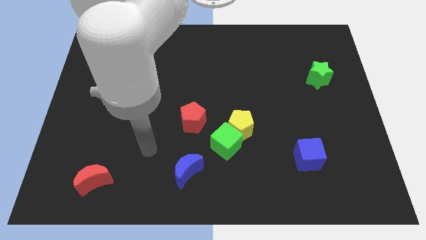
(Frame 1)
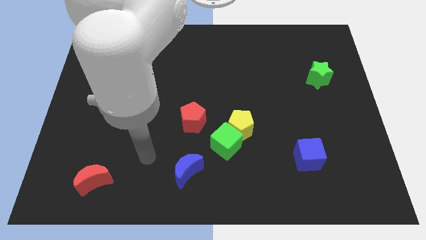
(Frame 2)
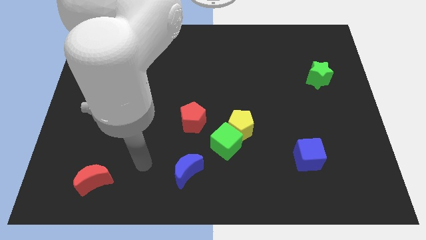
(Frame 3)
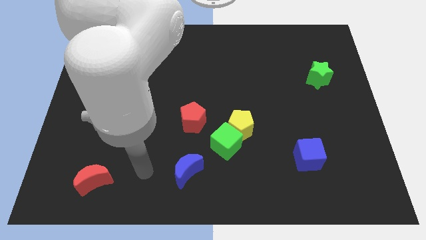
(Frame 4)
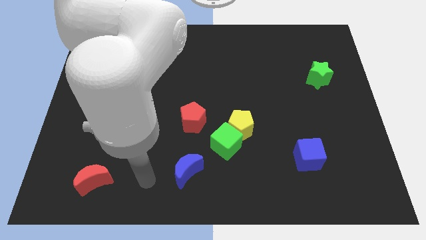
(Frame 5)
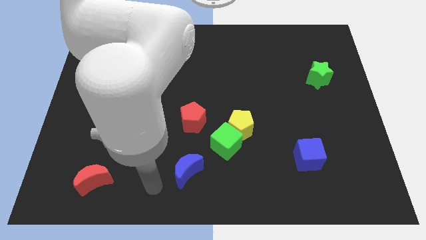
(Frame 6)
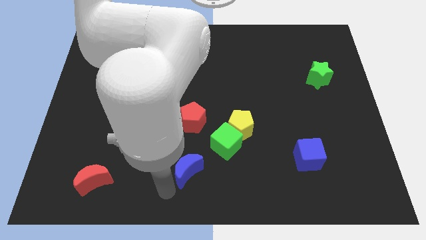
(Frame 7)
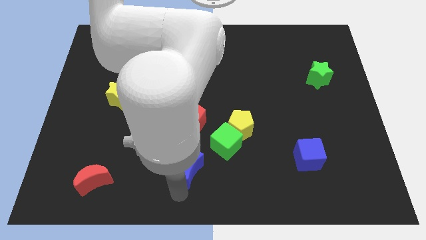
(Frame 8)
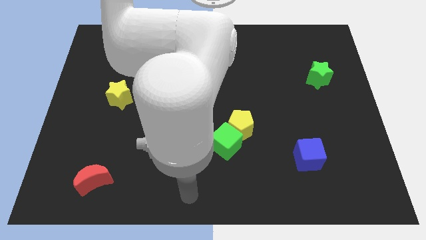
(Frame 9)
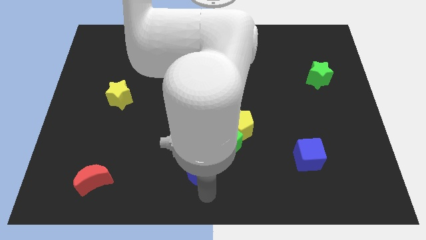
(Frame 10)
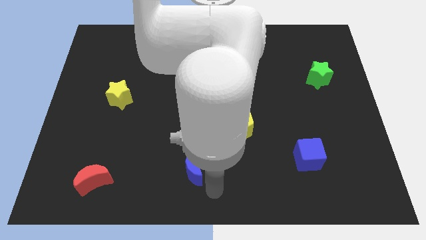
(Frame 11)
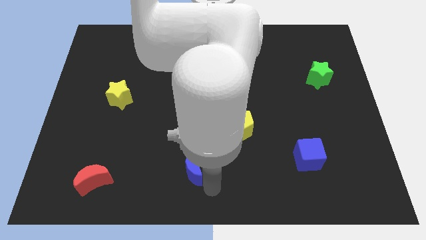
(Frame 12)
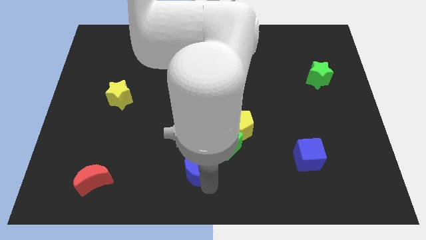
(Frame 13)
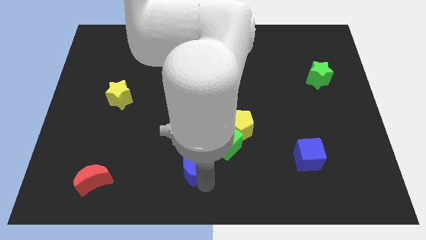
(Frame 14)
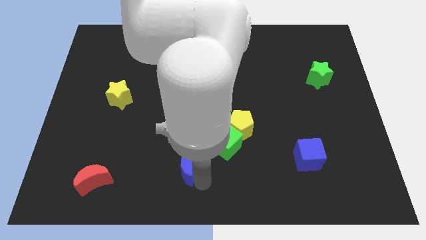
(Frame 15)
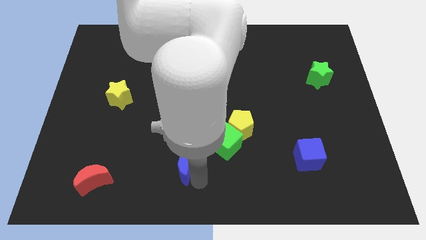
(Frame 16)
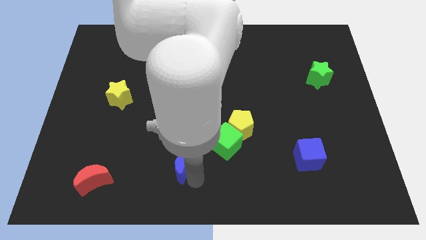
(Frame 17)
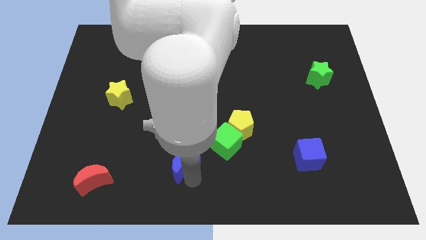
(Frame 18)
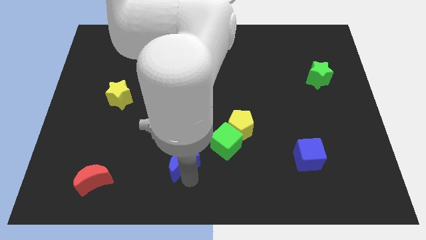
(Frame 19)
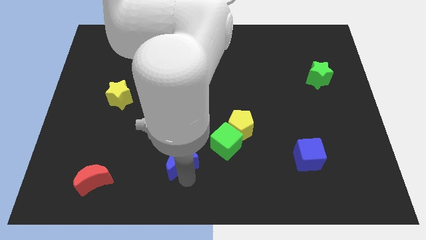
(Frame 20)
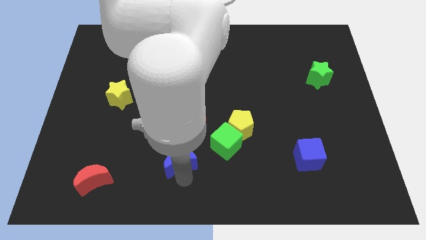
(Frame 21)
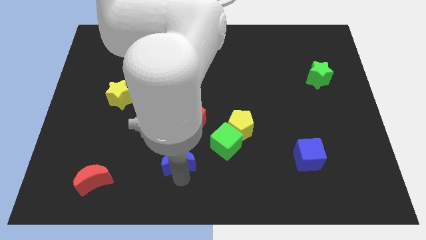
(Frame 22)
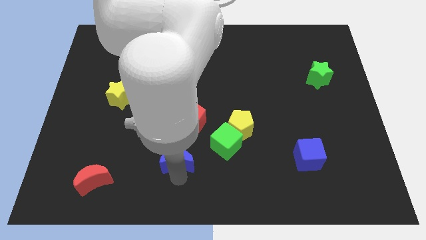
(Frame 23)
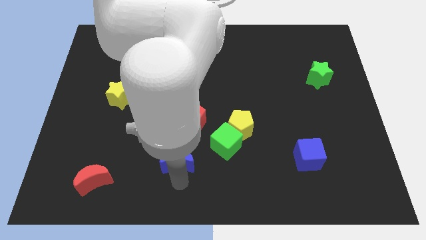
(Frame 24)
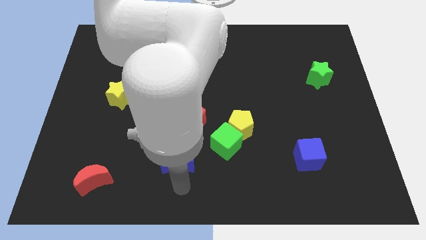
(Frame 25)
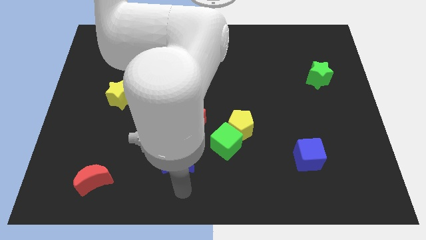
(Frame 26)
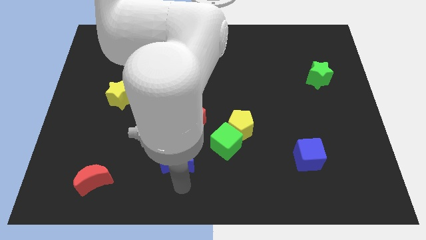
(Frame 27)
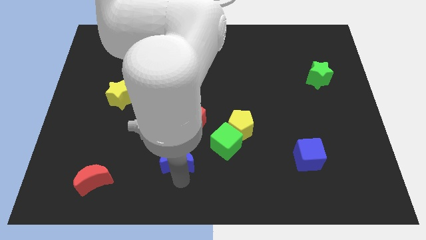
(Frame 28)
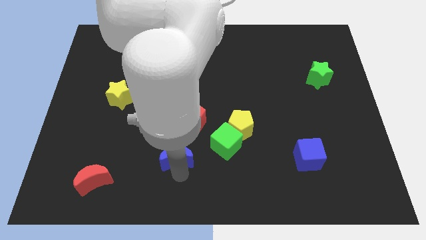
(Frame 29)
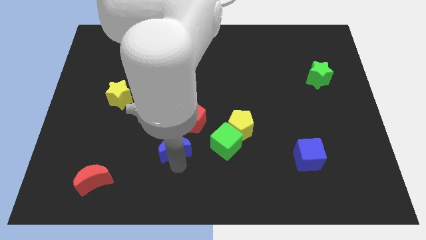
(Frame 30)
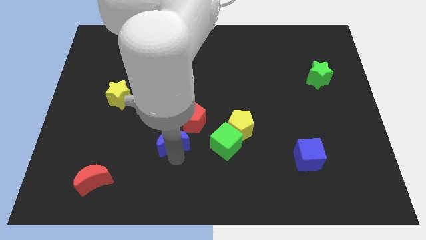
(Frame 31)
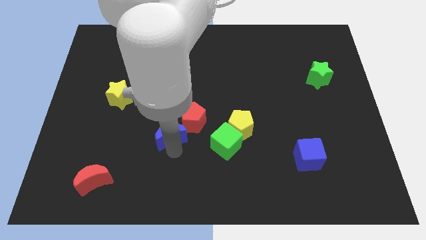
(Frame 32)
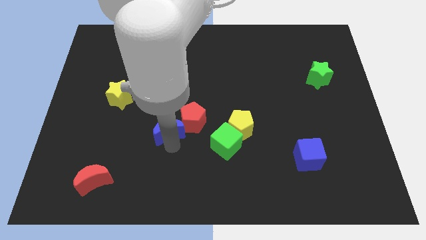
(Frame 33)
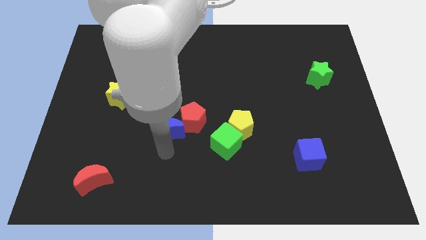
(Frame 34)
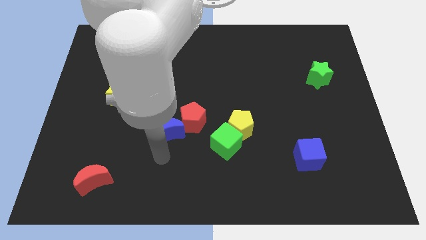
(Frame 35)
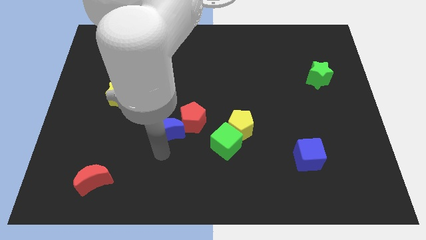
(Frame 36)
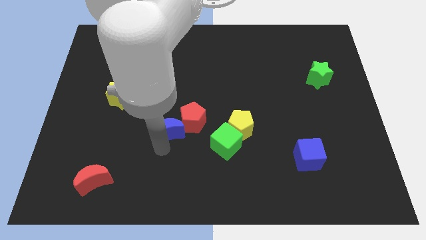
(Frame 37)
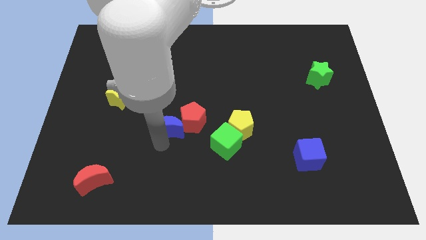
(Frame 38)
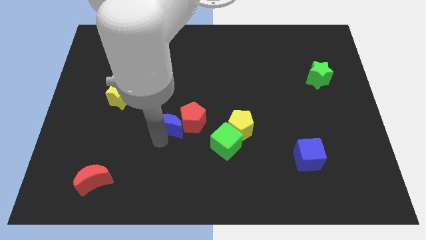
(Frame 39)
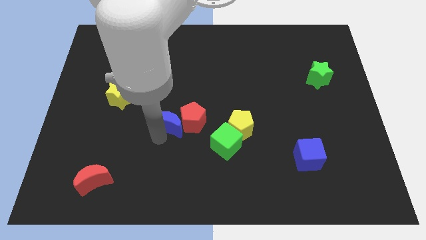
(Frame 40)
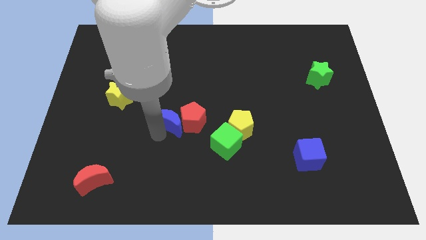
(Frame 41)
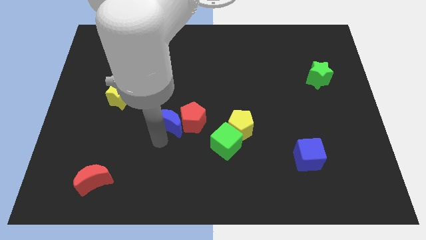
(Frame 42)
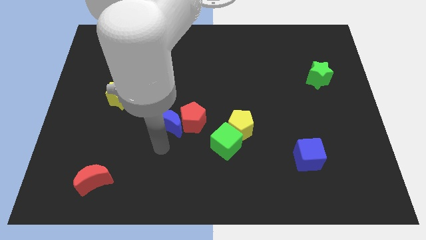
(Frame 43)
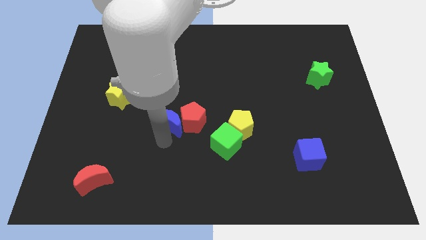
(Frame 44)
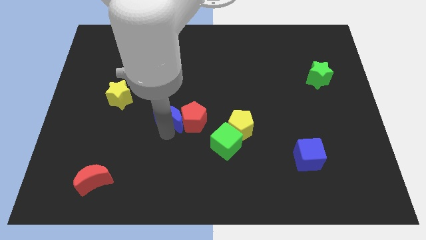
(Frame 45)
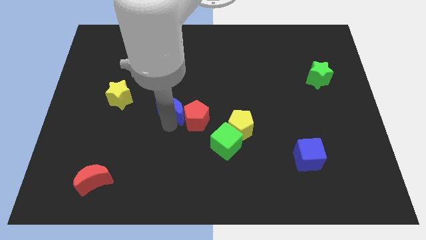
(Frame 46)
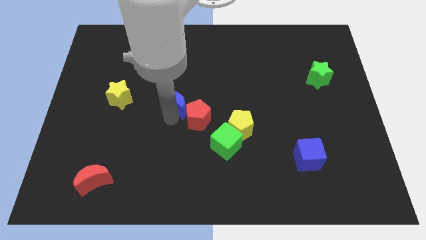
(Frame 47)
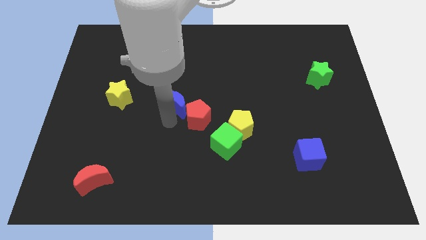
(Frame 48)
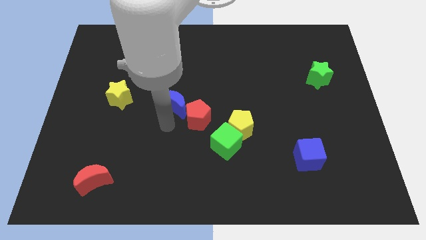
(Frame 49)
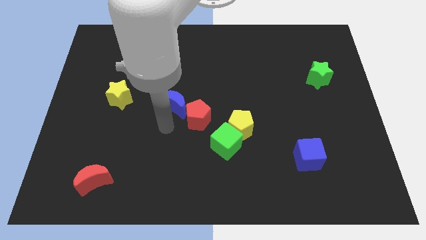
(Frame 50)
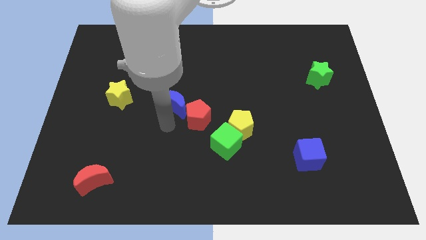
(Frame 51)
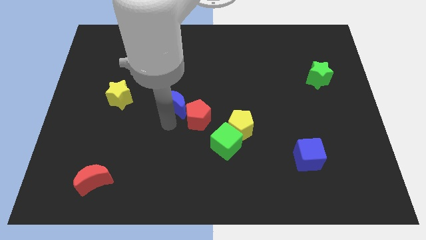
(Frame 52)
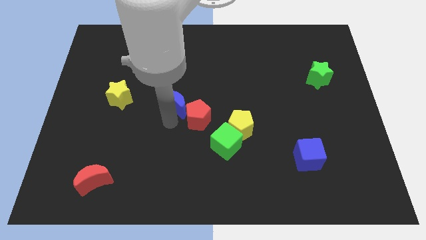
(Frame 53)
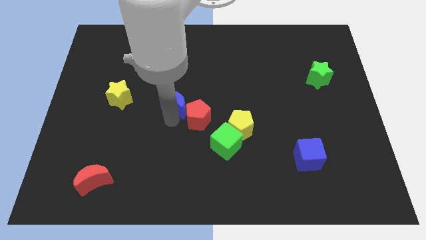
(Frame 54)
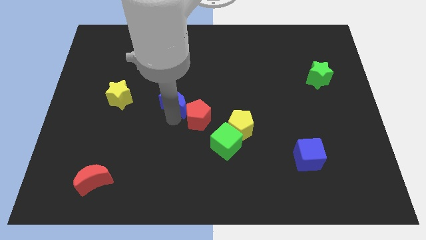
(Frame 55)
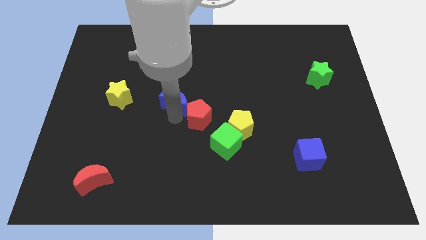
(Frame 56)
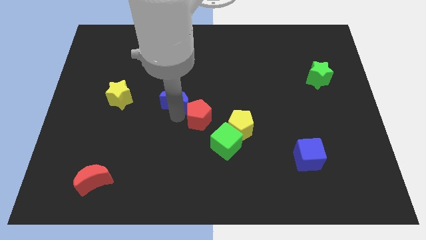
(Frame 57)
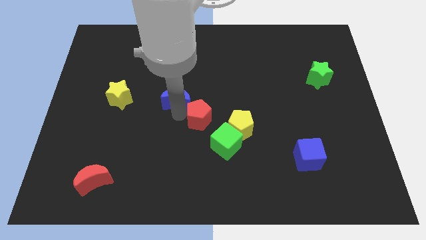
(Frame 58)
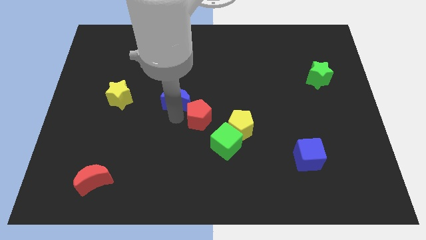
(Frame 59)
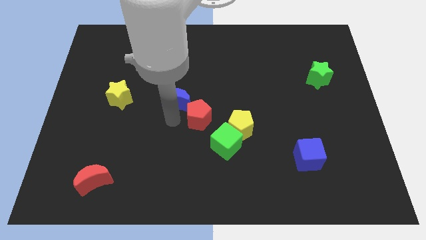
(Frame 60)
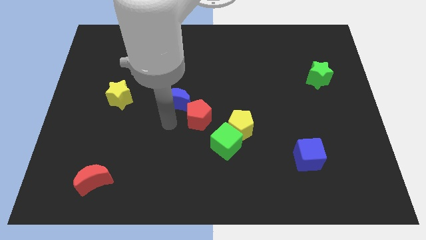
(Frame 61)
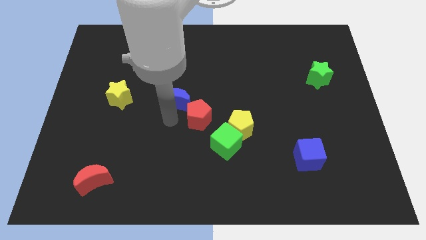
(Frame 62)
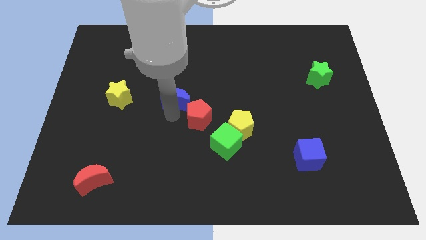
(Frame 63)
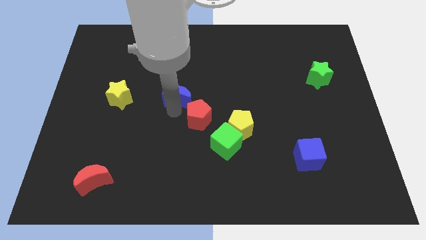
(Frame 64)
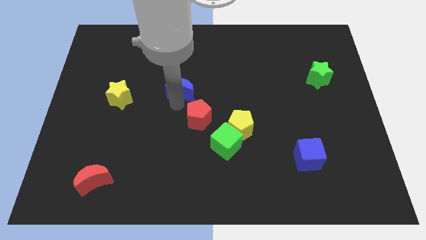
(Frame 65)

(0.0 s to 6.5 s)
push the blue moon up

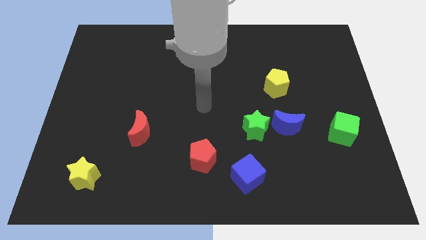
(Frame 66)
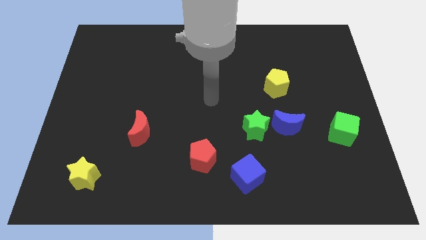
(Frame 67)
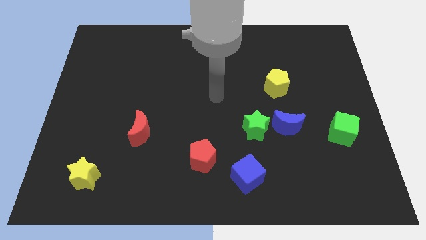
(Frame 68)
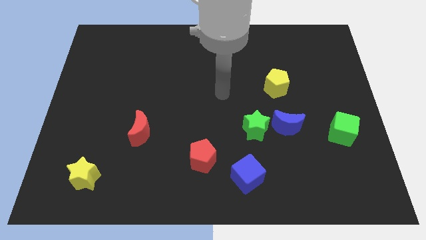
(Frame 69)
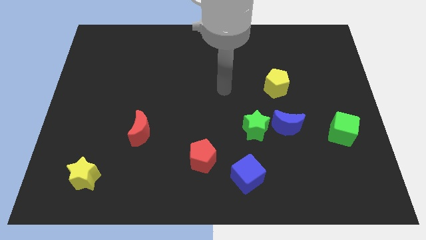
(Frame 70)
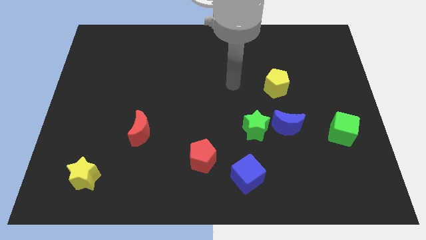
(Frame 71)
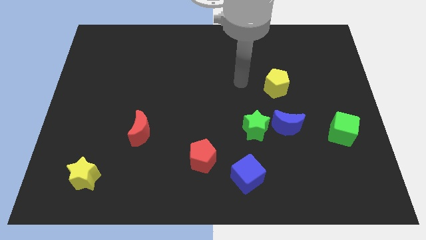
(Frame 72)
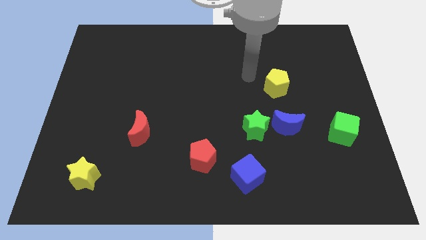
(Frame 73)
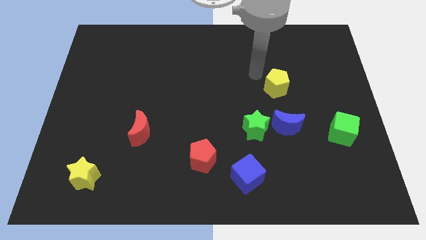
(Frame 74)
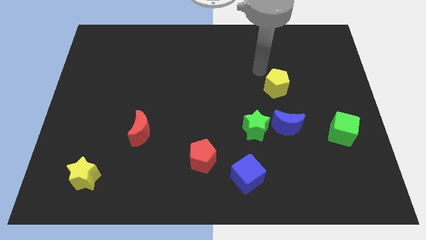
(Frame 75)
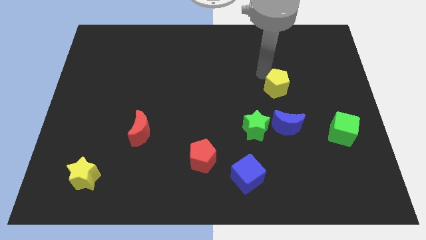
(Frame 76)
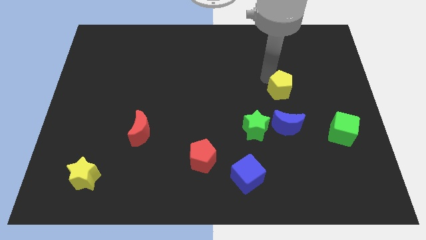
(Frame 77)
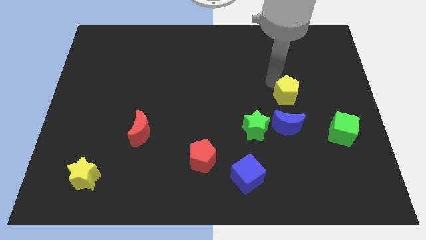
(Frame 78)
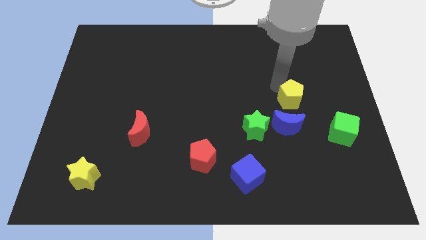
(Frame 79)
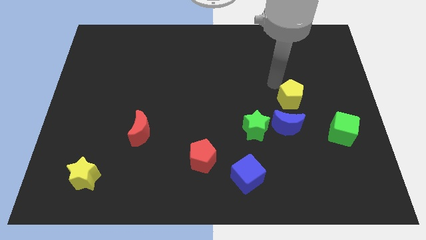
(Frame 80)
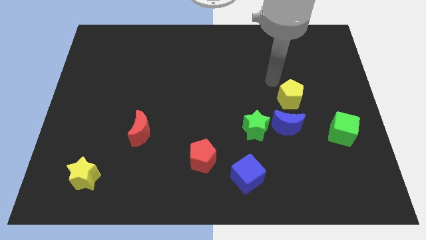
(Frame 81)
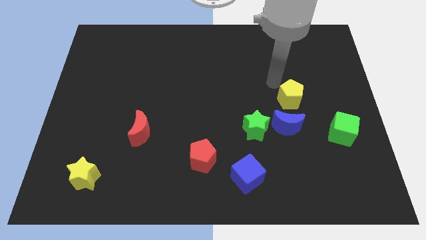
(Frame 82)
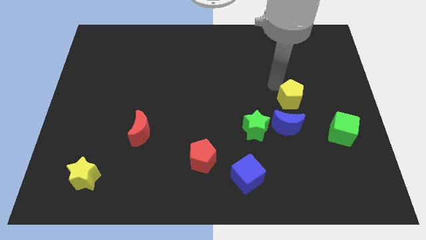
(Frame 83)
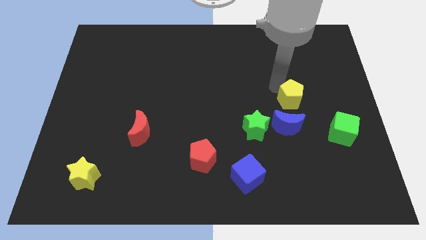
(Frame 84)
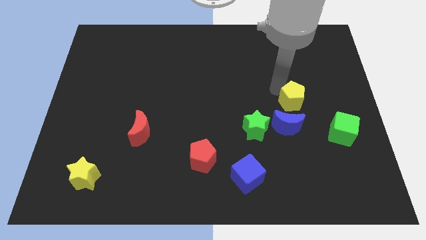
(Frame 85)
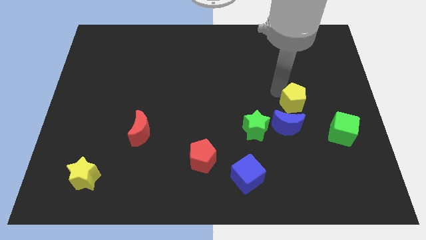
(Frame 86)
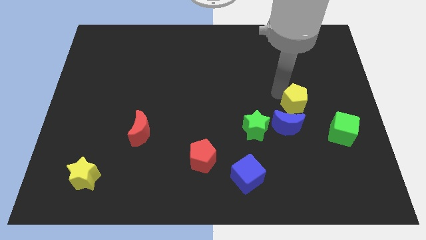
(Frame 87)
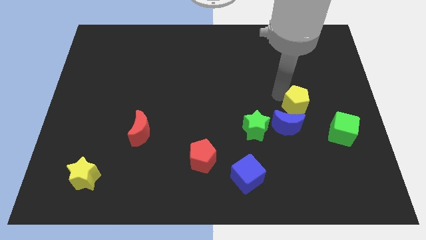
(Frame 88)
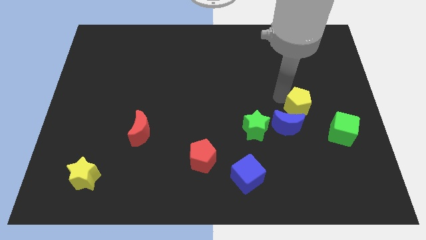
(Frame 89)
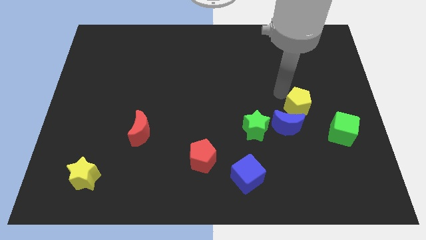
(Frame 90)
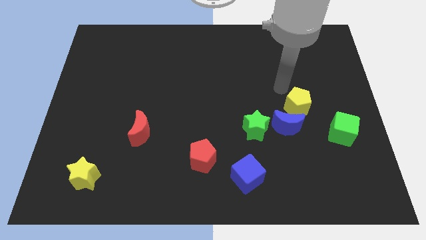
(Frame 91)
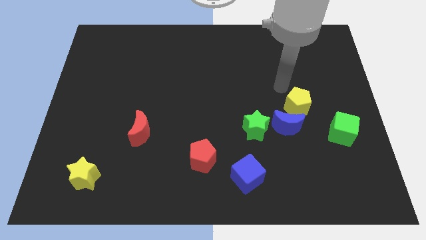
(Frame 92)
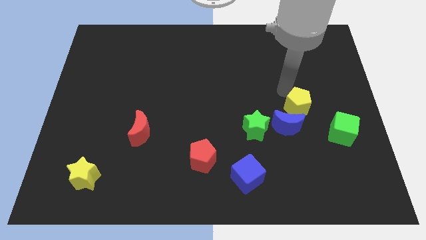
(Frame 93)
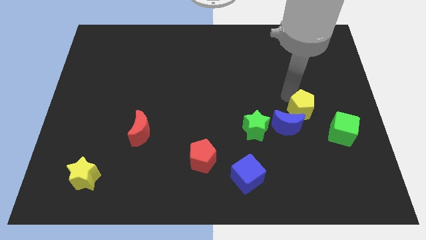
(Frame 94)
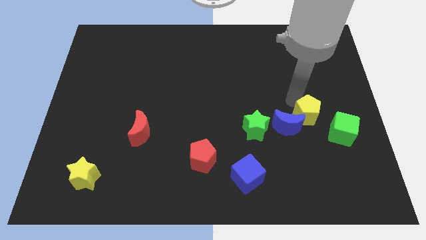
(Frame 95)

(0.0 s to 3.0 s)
slide the yellow pentagon a bit down
